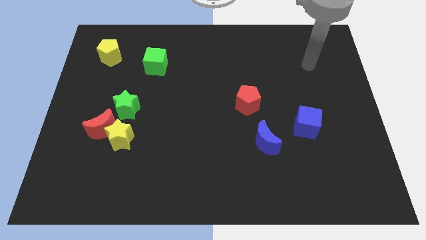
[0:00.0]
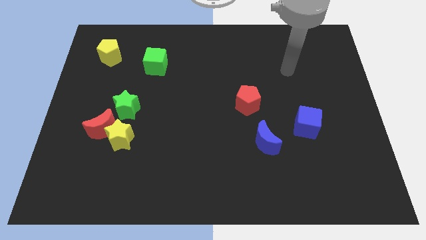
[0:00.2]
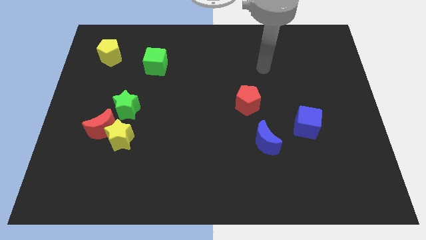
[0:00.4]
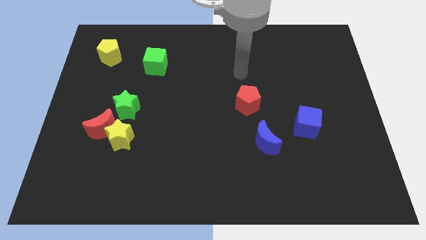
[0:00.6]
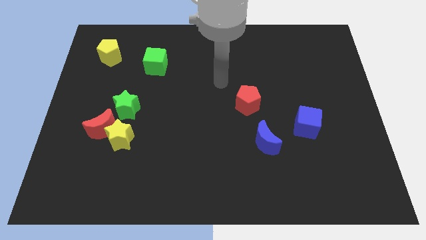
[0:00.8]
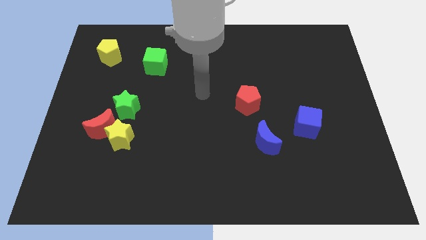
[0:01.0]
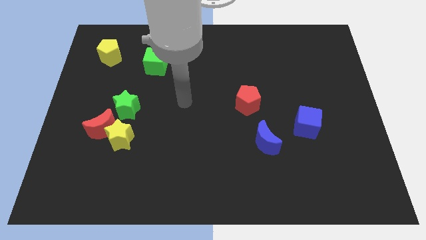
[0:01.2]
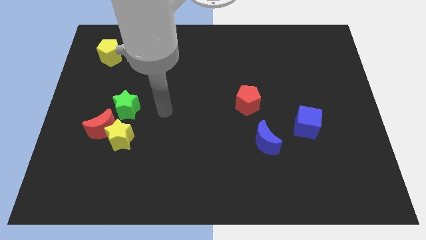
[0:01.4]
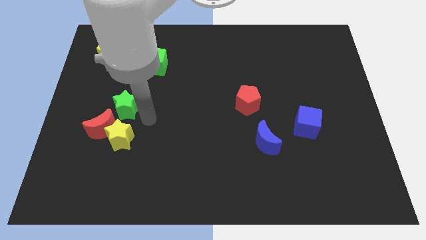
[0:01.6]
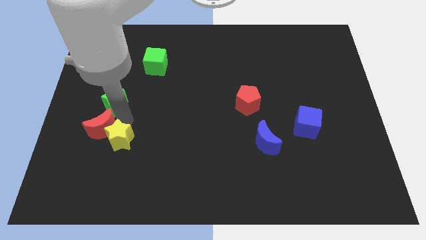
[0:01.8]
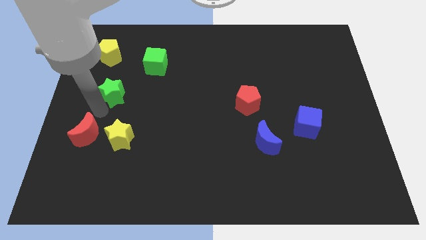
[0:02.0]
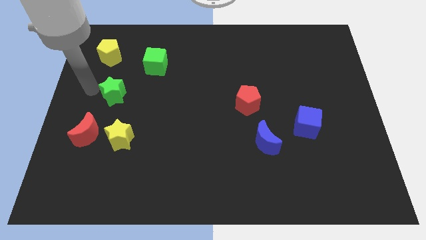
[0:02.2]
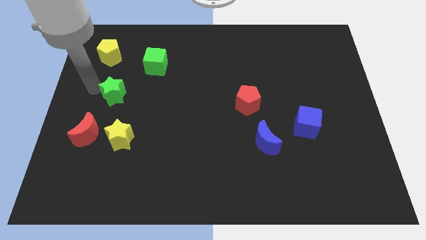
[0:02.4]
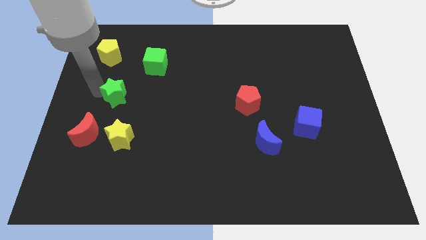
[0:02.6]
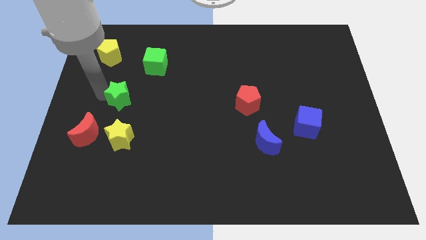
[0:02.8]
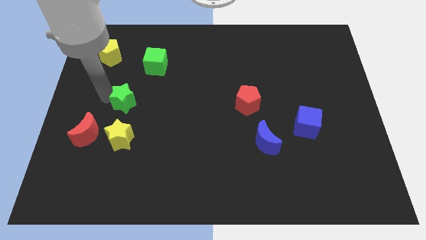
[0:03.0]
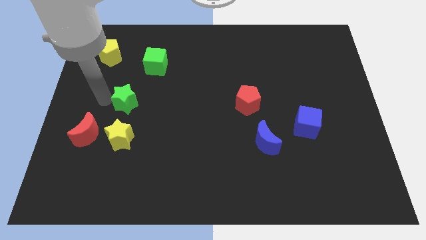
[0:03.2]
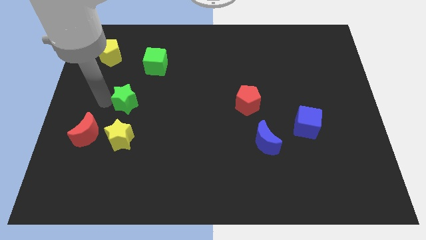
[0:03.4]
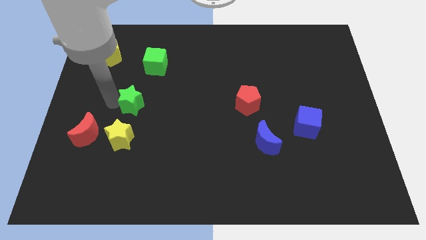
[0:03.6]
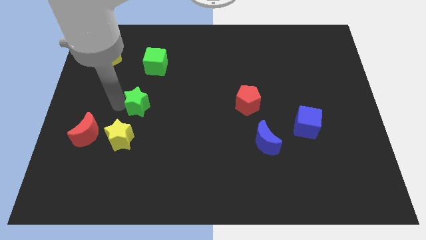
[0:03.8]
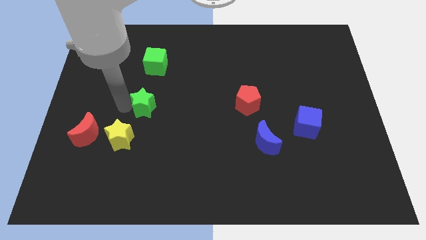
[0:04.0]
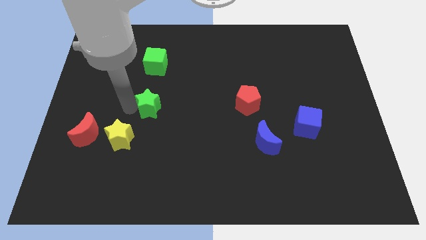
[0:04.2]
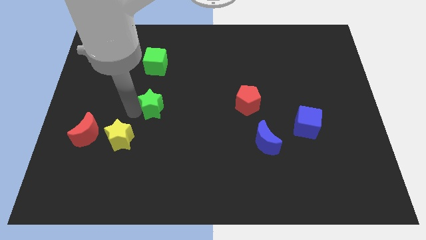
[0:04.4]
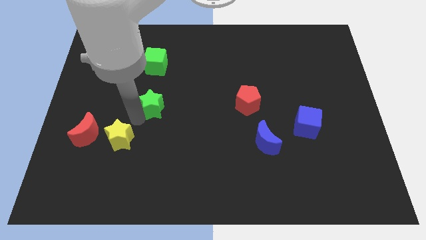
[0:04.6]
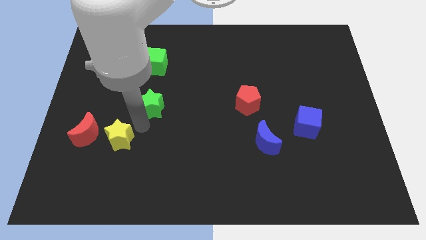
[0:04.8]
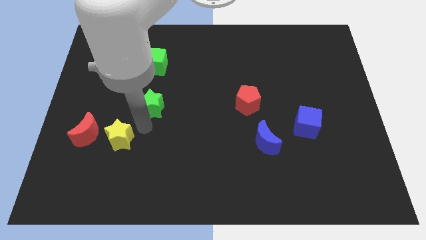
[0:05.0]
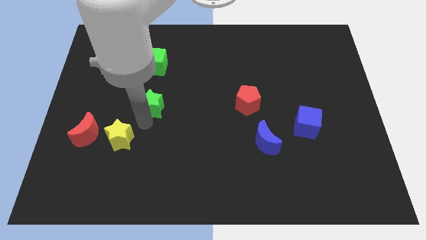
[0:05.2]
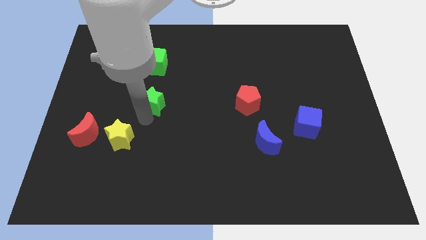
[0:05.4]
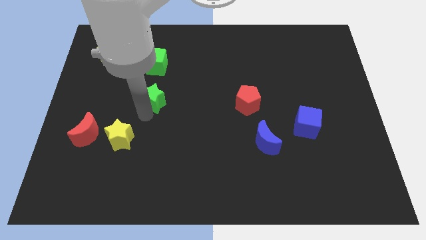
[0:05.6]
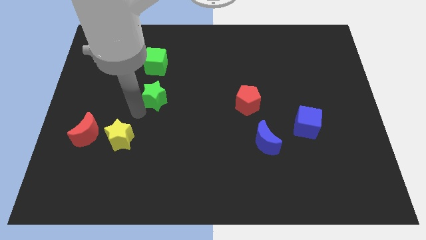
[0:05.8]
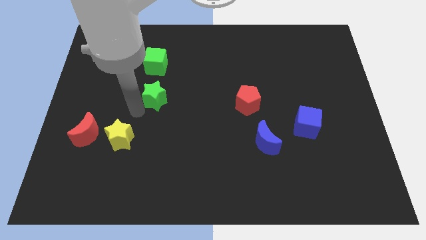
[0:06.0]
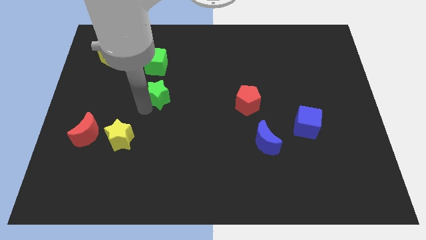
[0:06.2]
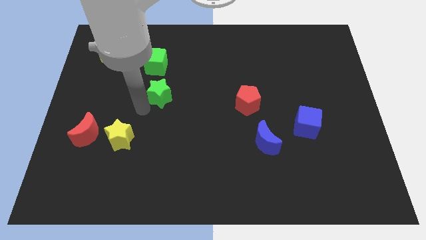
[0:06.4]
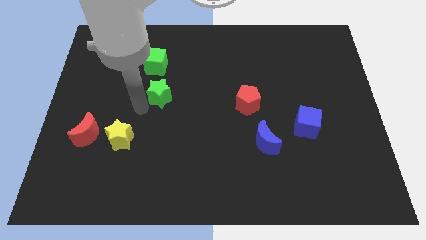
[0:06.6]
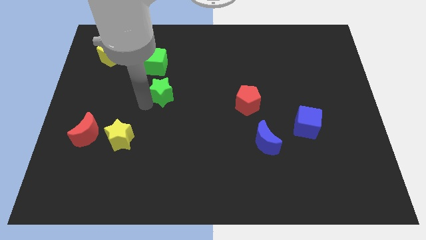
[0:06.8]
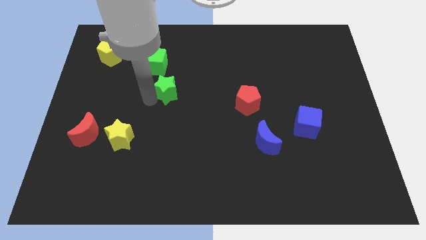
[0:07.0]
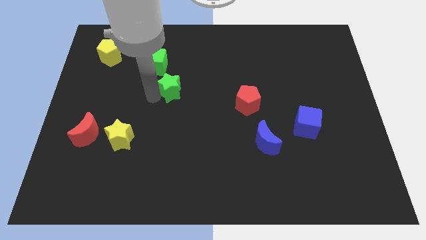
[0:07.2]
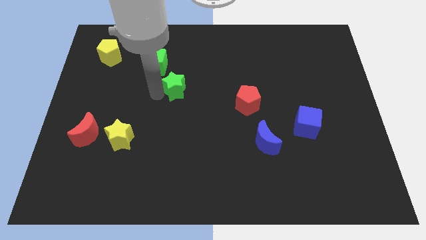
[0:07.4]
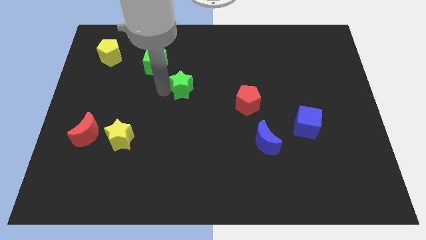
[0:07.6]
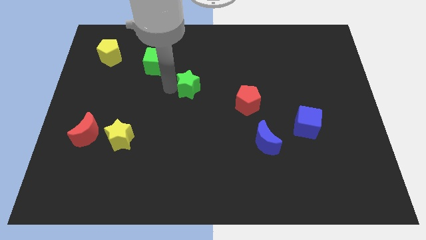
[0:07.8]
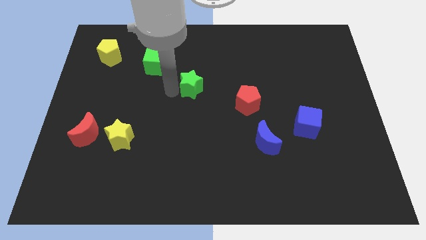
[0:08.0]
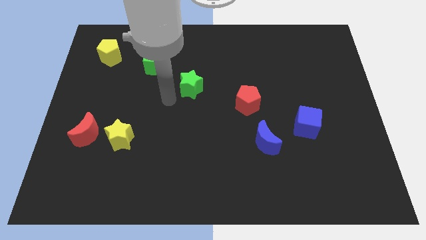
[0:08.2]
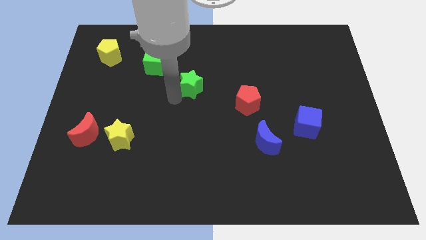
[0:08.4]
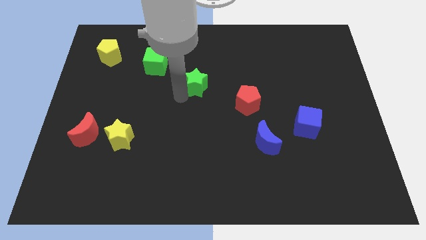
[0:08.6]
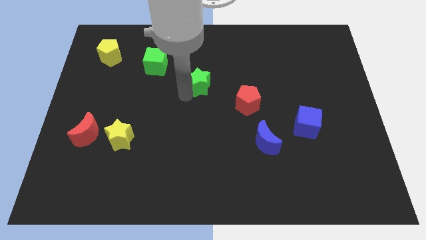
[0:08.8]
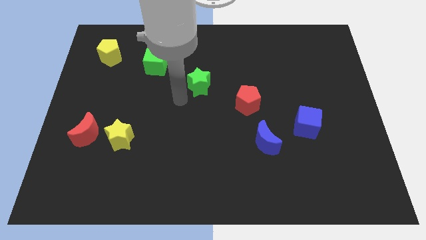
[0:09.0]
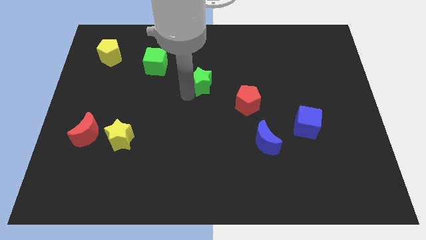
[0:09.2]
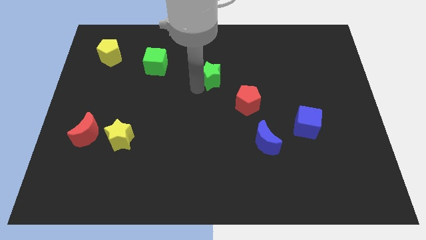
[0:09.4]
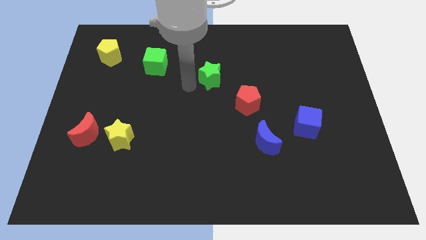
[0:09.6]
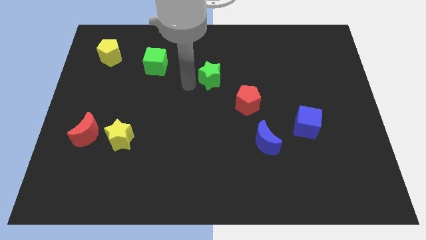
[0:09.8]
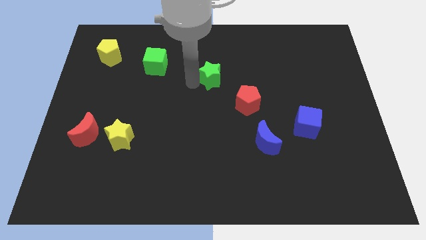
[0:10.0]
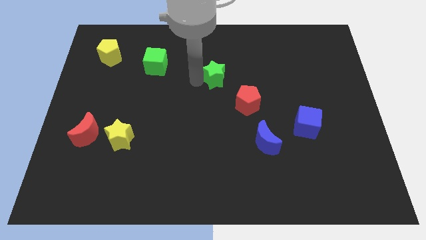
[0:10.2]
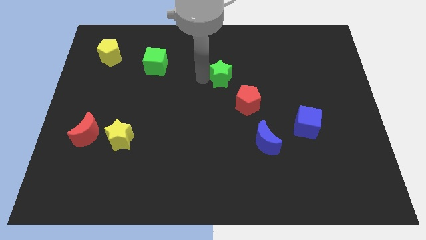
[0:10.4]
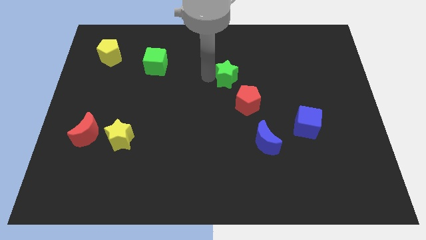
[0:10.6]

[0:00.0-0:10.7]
put the green star above the red pentagon

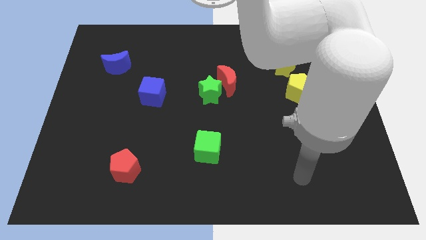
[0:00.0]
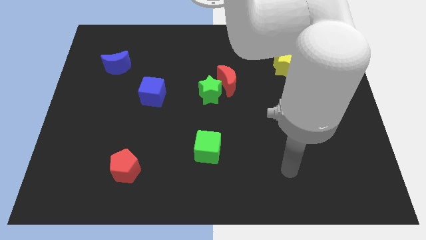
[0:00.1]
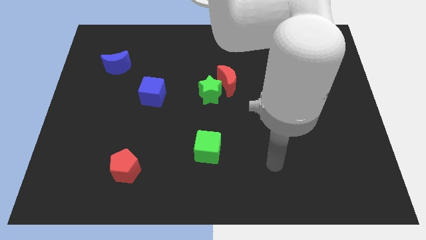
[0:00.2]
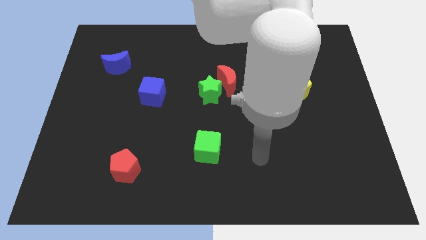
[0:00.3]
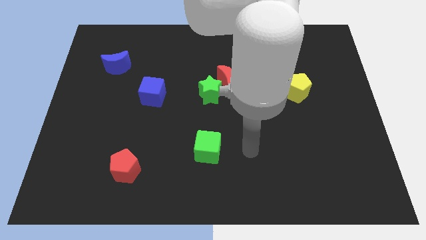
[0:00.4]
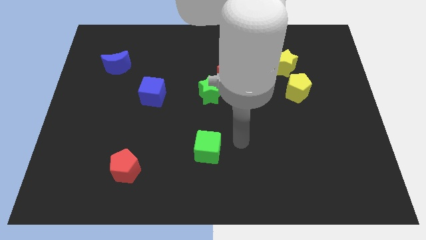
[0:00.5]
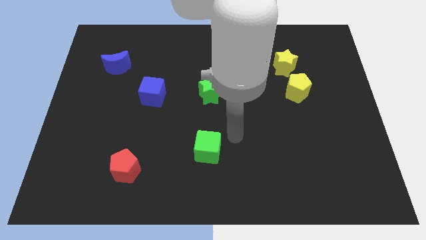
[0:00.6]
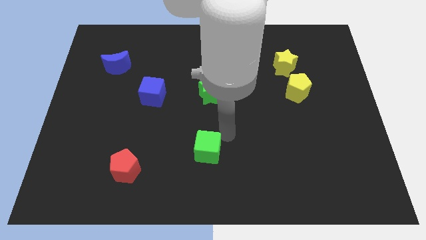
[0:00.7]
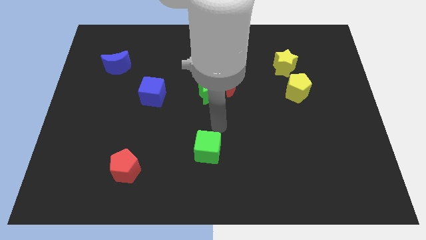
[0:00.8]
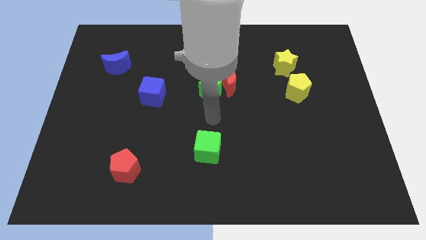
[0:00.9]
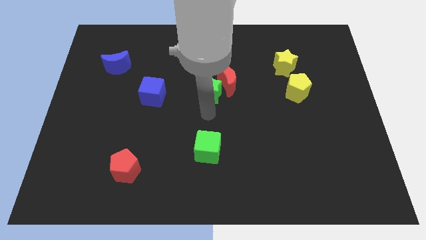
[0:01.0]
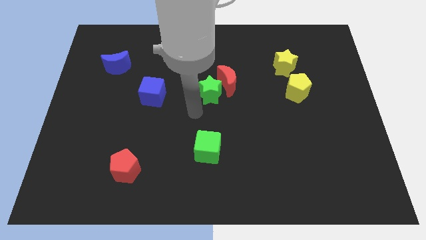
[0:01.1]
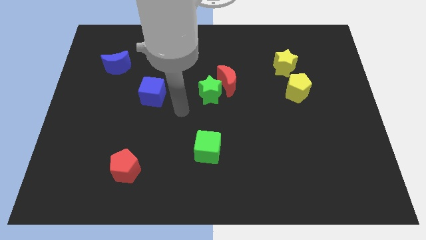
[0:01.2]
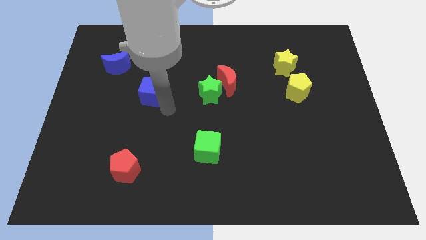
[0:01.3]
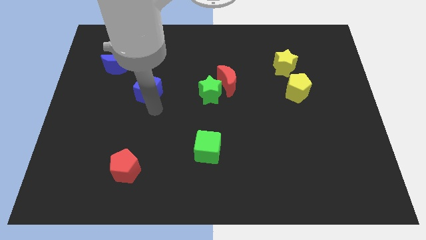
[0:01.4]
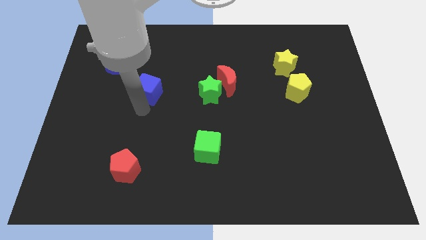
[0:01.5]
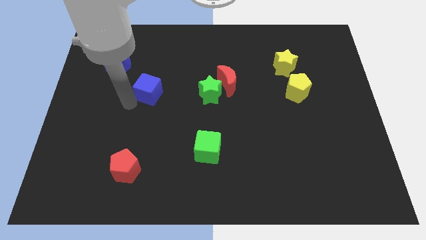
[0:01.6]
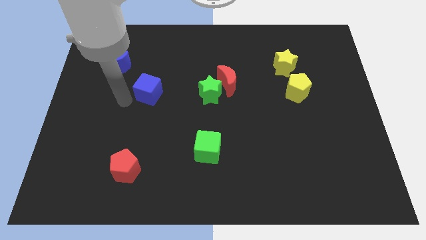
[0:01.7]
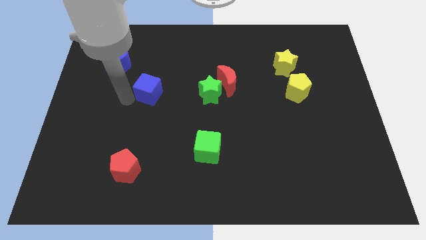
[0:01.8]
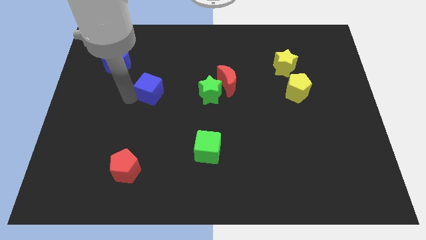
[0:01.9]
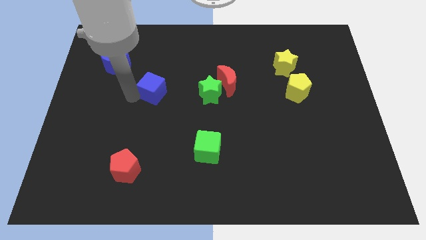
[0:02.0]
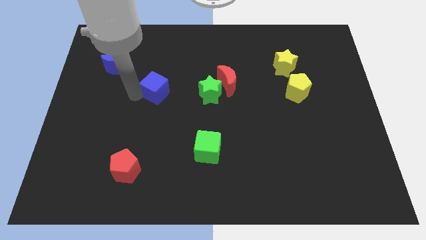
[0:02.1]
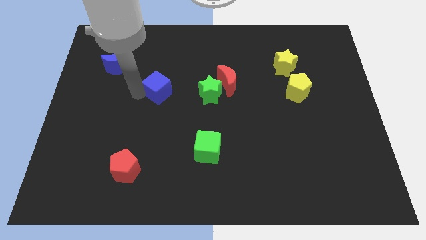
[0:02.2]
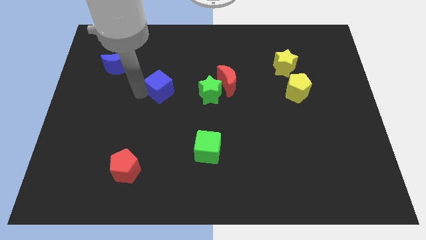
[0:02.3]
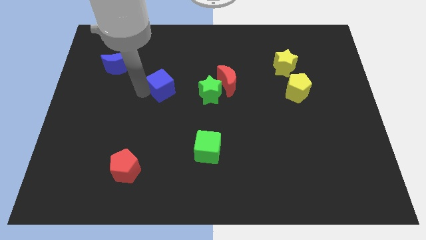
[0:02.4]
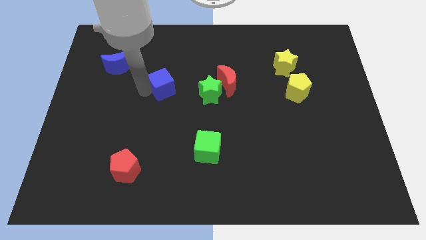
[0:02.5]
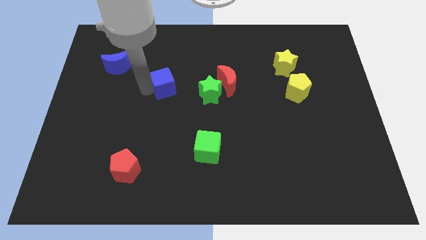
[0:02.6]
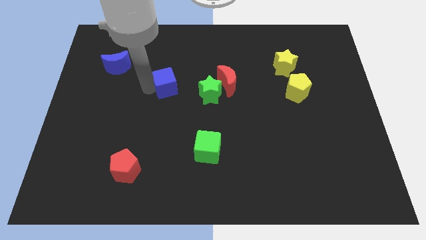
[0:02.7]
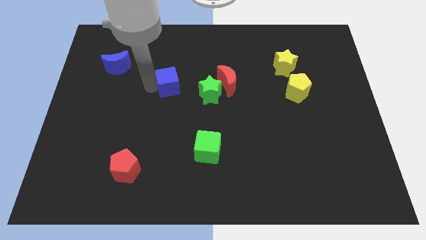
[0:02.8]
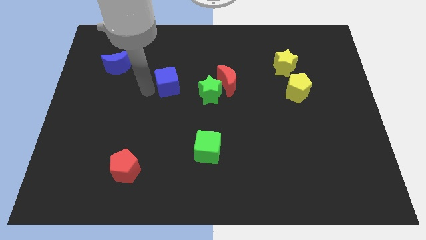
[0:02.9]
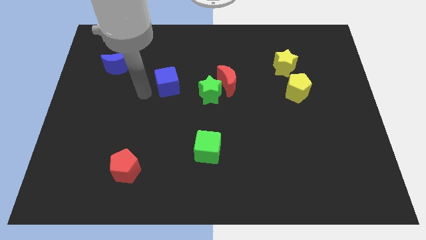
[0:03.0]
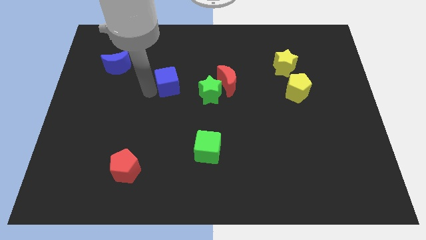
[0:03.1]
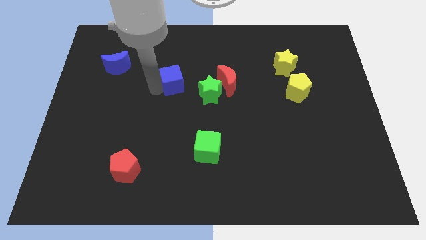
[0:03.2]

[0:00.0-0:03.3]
put the blue cube diagonally up and to the left of the green star
